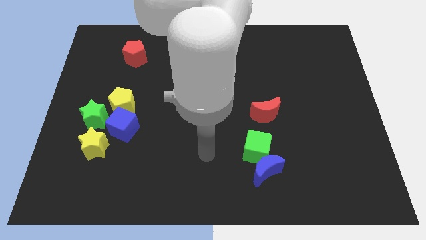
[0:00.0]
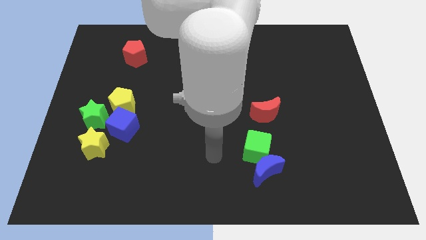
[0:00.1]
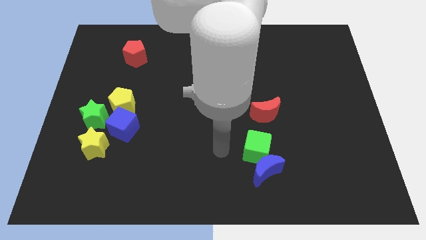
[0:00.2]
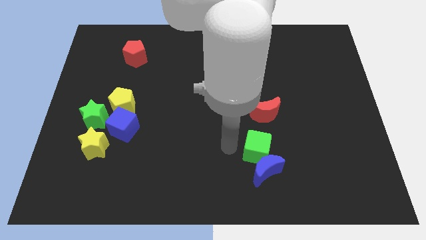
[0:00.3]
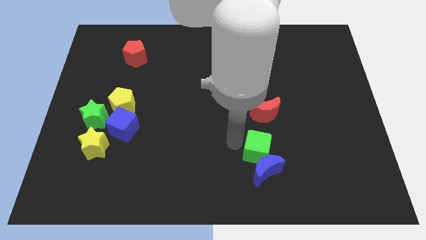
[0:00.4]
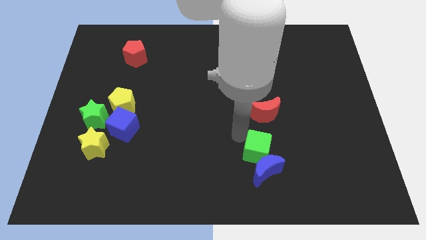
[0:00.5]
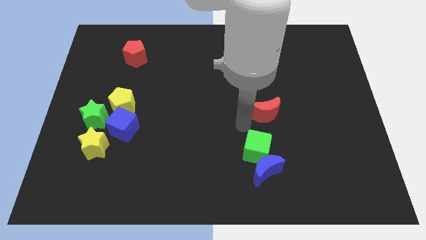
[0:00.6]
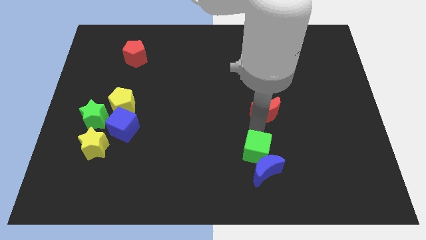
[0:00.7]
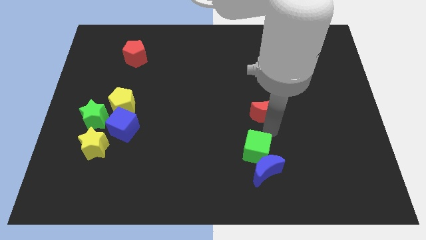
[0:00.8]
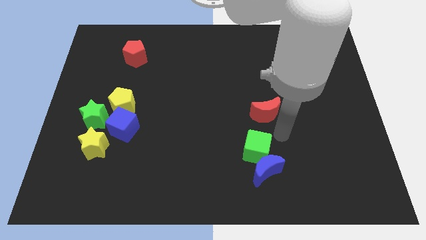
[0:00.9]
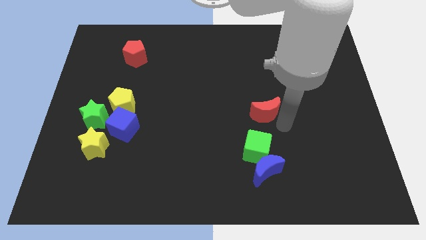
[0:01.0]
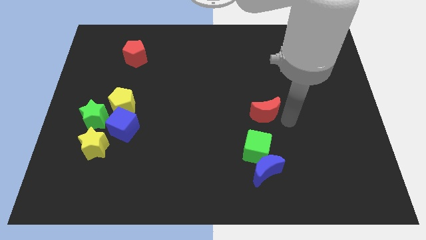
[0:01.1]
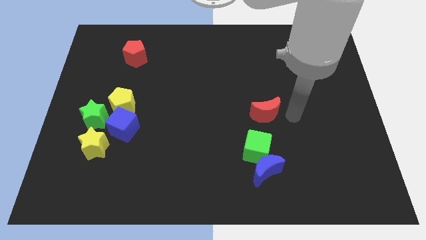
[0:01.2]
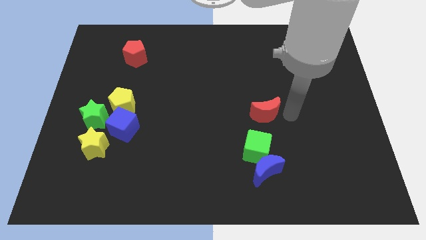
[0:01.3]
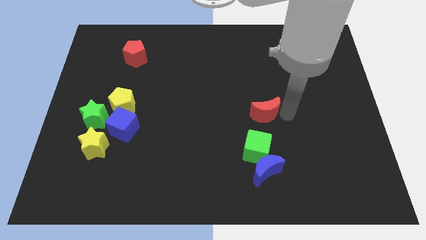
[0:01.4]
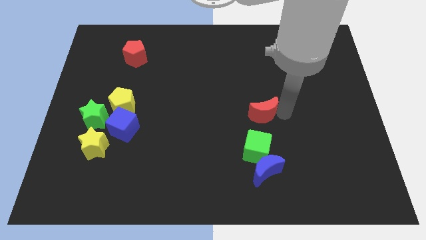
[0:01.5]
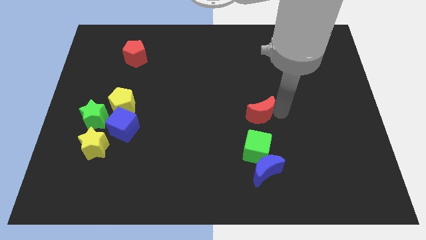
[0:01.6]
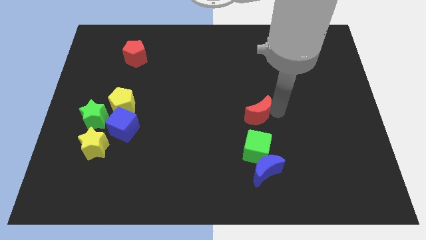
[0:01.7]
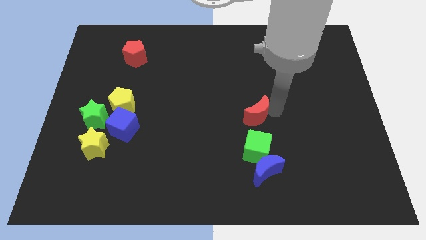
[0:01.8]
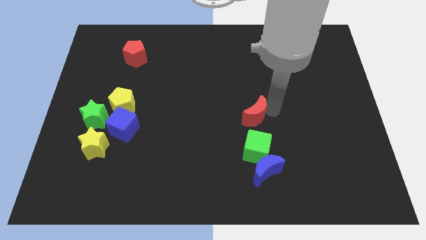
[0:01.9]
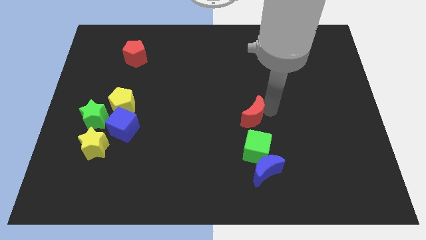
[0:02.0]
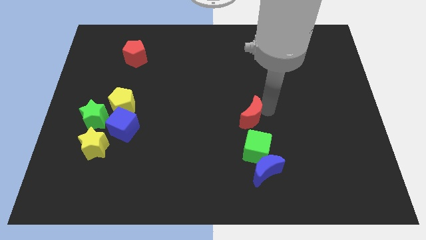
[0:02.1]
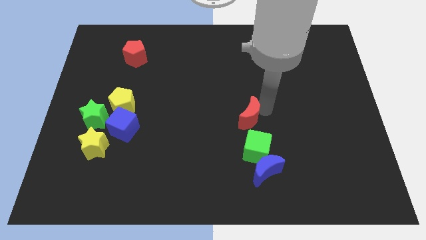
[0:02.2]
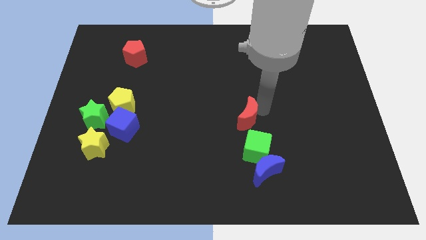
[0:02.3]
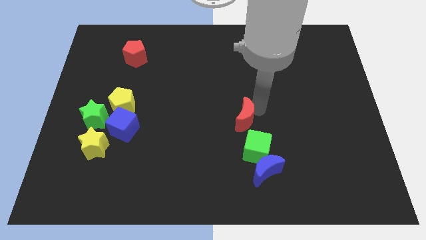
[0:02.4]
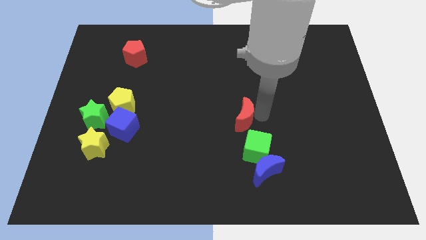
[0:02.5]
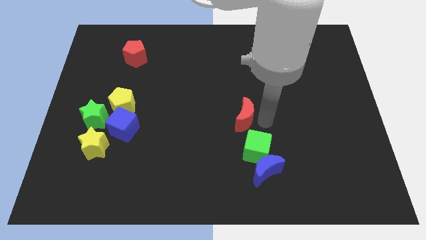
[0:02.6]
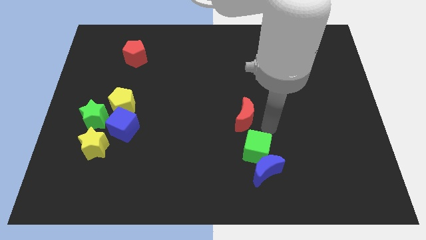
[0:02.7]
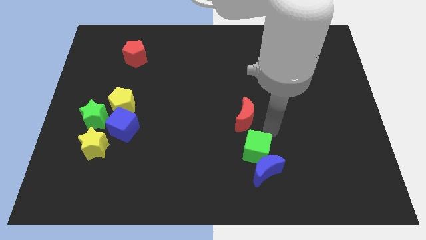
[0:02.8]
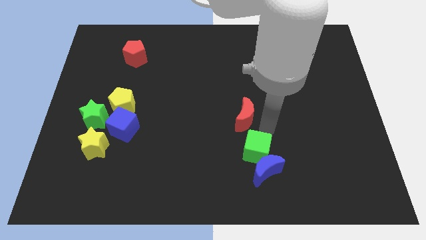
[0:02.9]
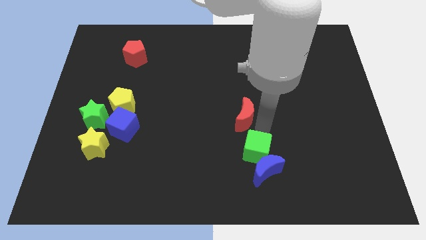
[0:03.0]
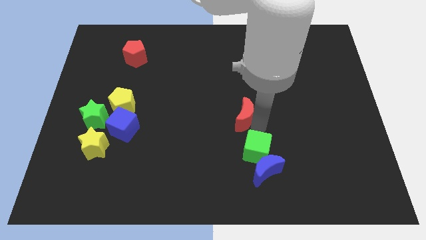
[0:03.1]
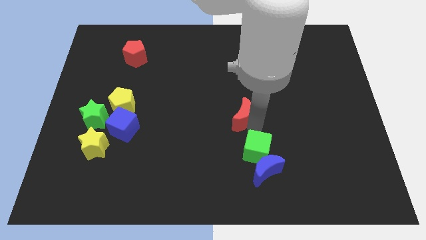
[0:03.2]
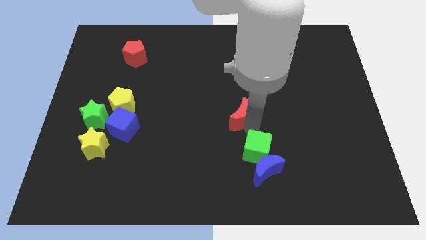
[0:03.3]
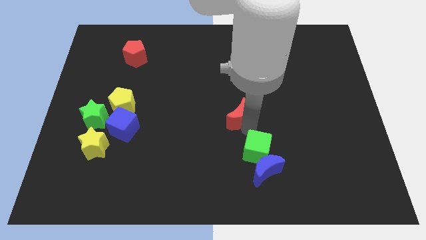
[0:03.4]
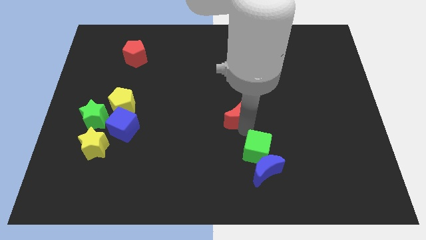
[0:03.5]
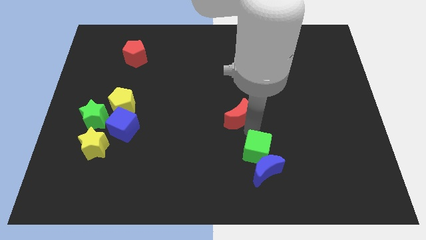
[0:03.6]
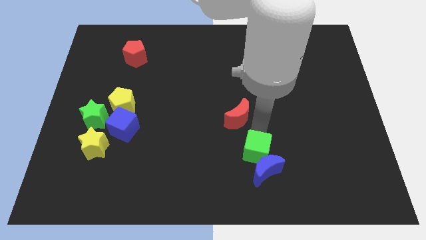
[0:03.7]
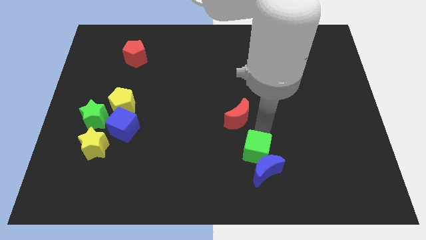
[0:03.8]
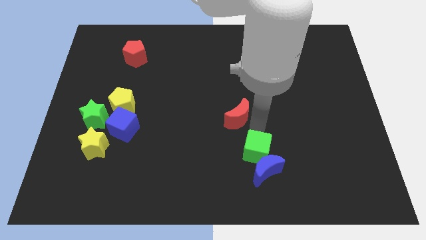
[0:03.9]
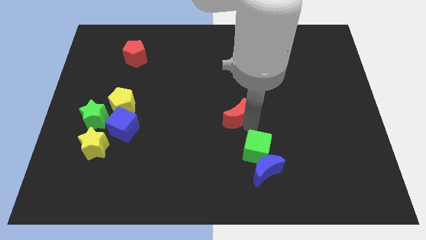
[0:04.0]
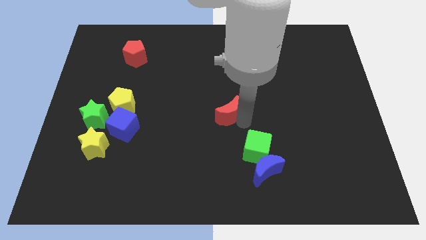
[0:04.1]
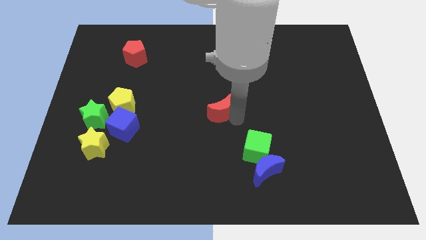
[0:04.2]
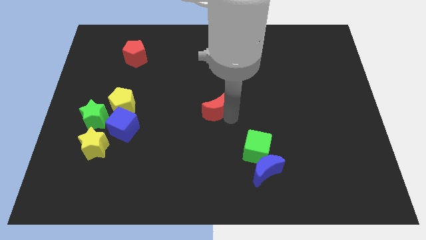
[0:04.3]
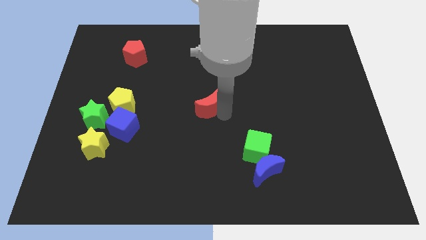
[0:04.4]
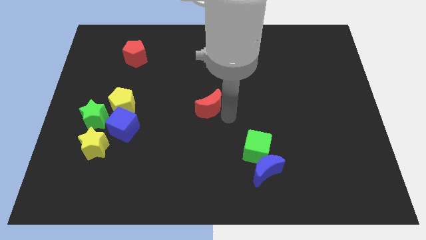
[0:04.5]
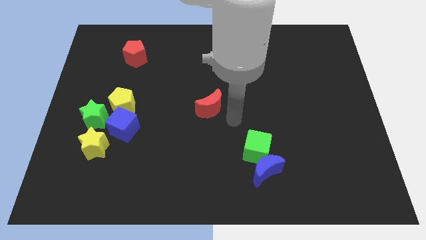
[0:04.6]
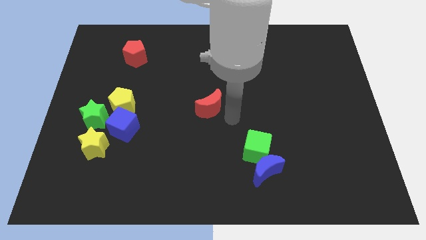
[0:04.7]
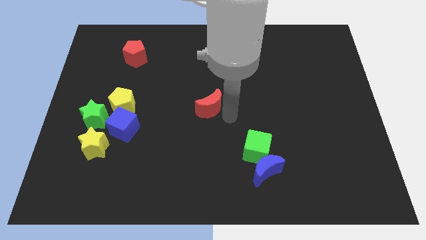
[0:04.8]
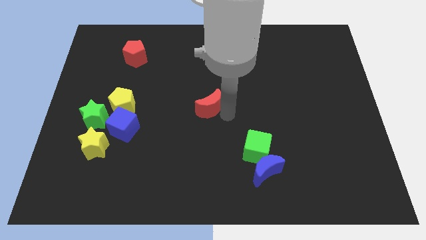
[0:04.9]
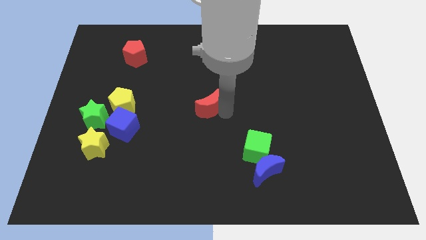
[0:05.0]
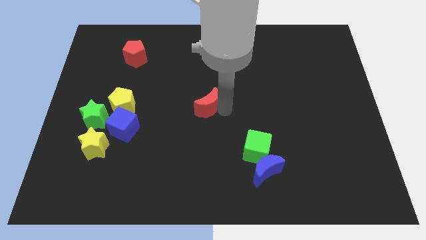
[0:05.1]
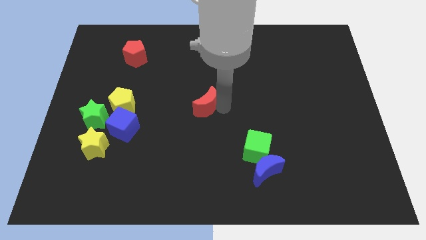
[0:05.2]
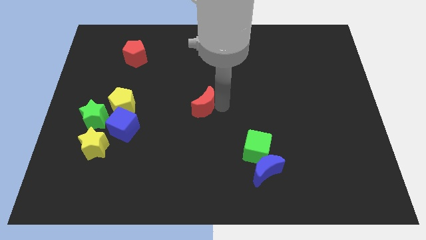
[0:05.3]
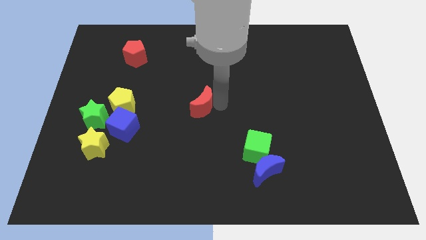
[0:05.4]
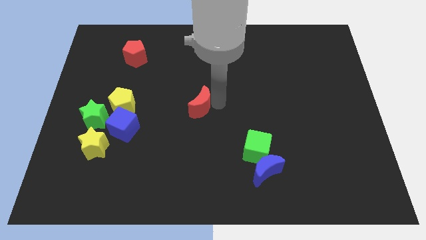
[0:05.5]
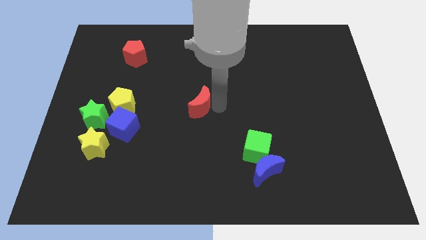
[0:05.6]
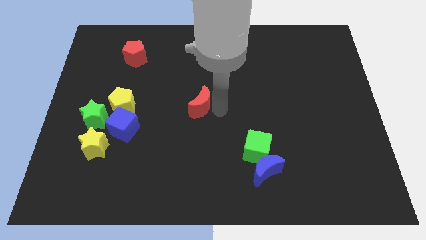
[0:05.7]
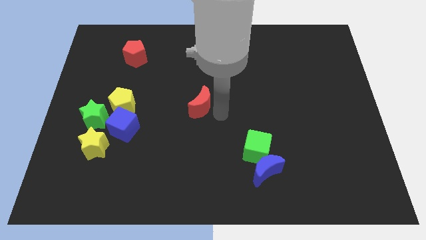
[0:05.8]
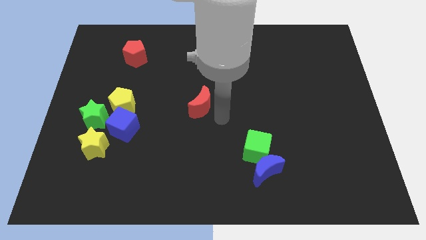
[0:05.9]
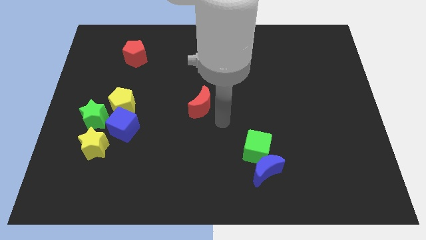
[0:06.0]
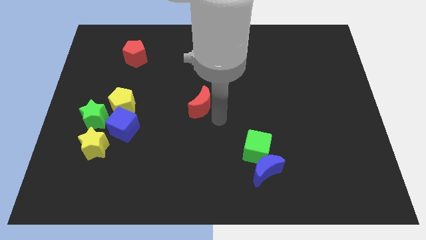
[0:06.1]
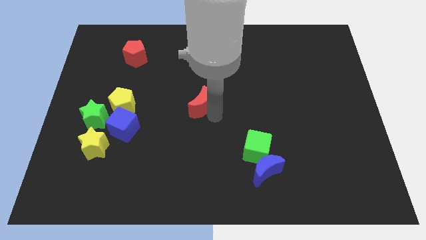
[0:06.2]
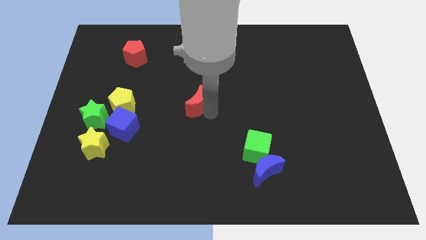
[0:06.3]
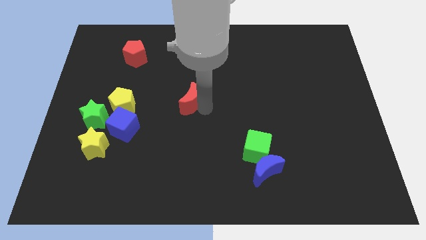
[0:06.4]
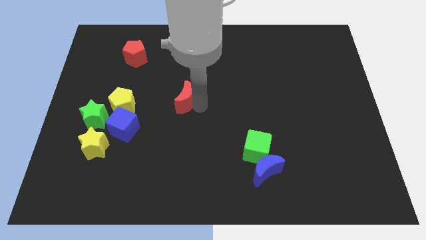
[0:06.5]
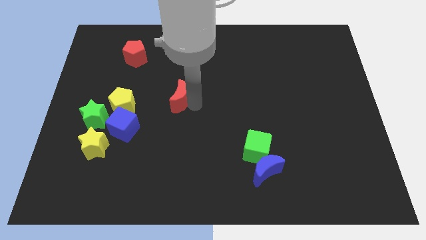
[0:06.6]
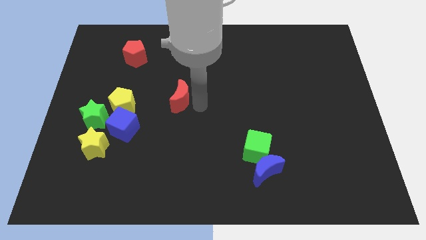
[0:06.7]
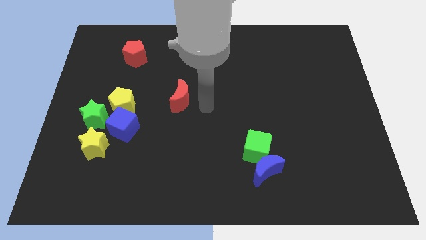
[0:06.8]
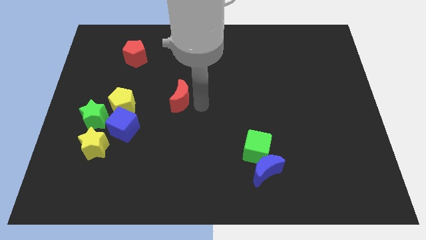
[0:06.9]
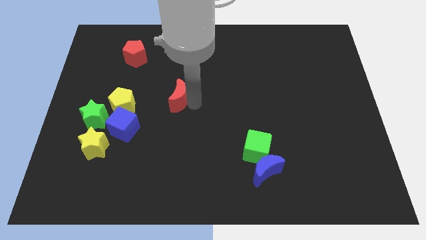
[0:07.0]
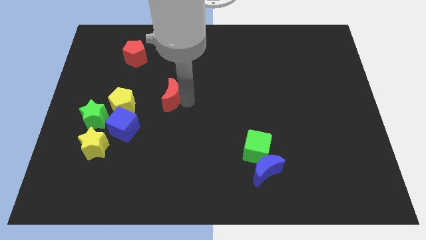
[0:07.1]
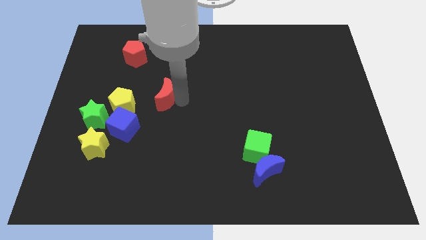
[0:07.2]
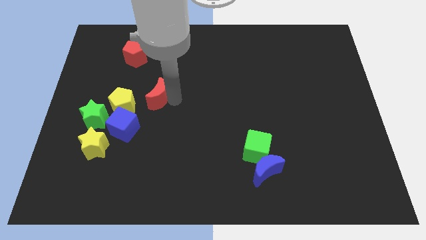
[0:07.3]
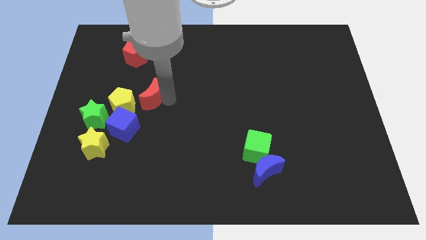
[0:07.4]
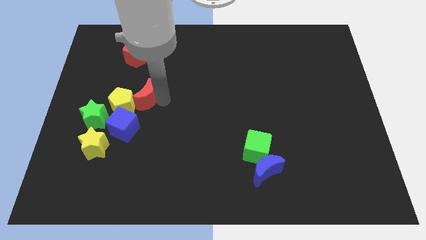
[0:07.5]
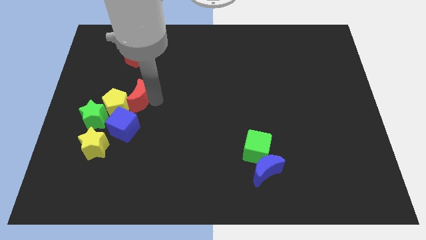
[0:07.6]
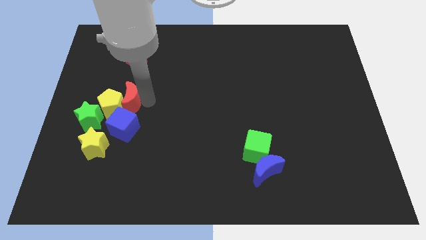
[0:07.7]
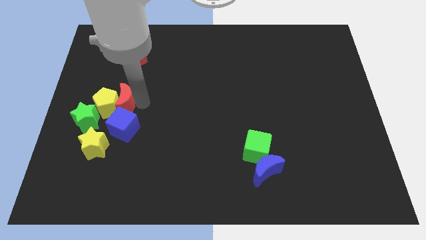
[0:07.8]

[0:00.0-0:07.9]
move the red moon to the top left side of the blue cube
